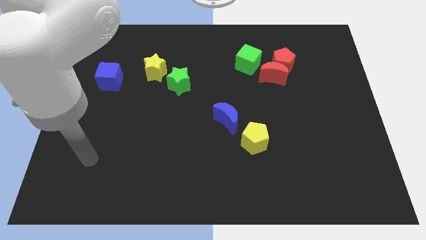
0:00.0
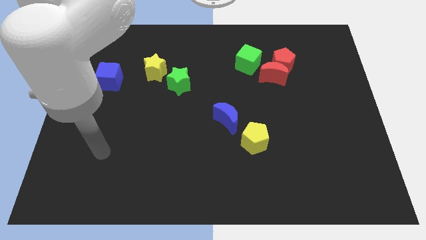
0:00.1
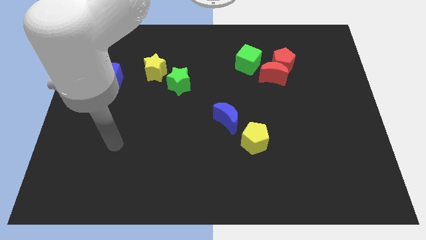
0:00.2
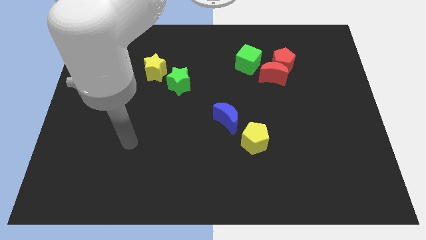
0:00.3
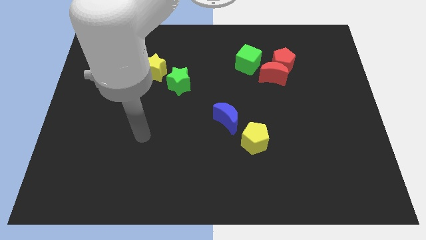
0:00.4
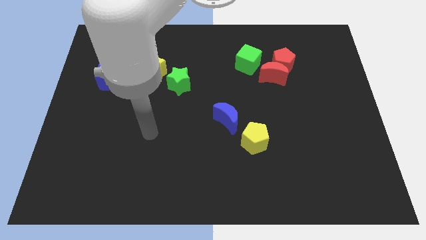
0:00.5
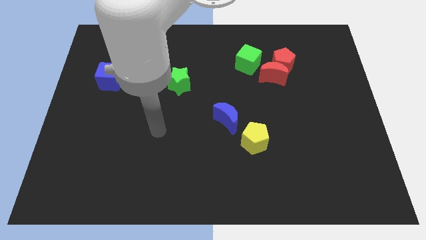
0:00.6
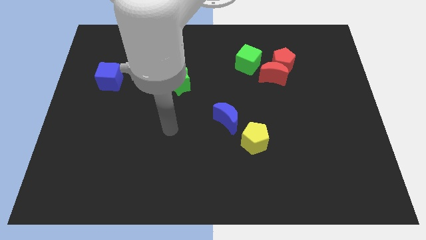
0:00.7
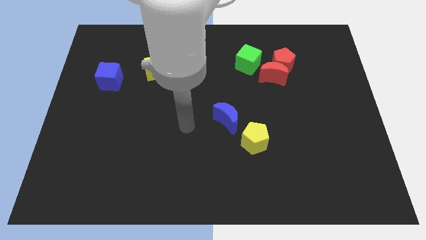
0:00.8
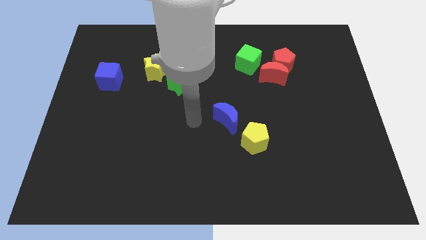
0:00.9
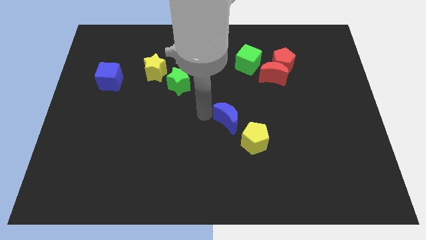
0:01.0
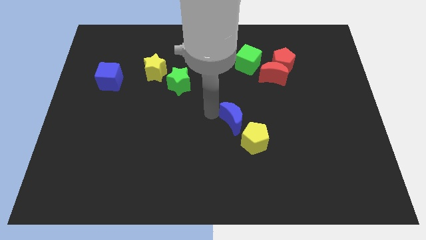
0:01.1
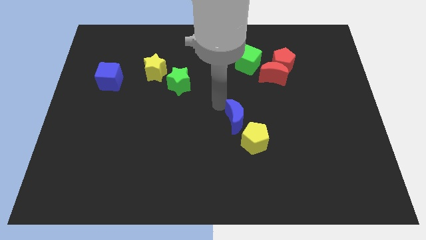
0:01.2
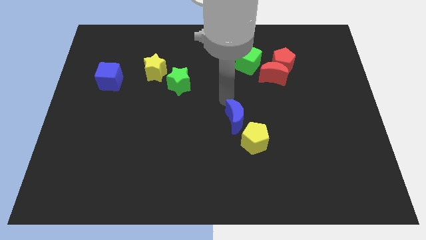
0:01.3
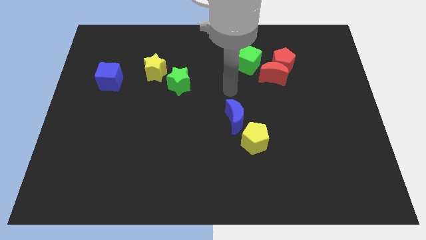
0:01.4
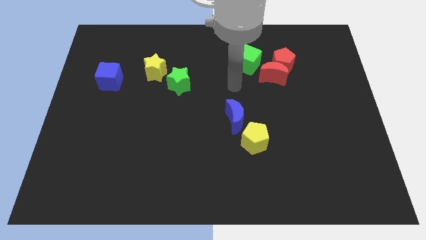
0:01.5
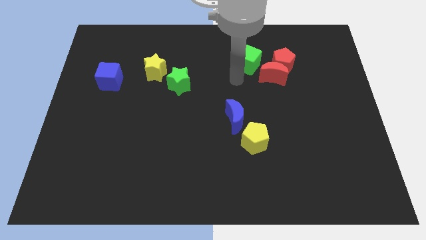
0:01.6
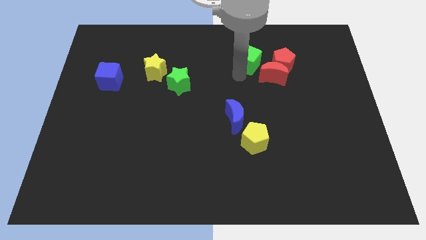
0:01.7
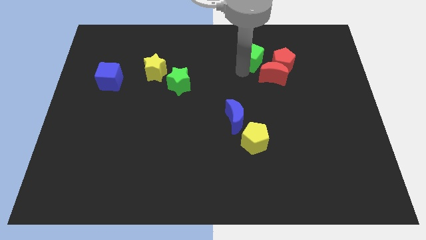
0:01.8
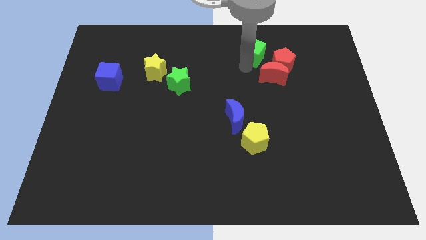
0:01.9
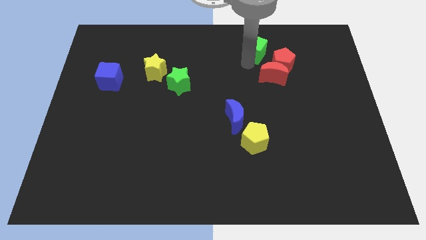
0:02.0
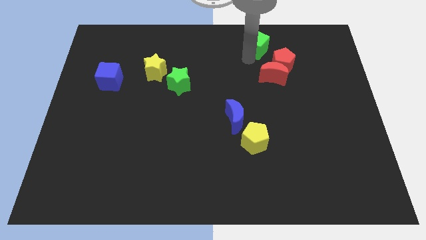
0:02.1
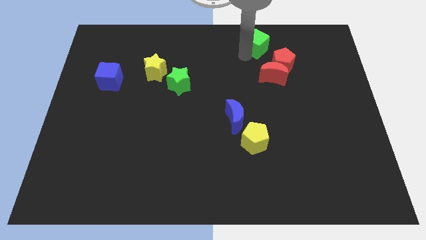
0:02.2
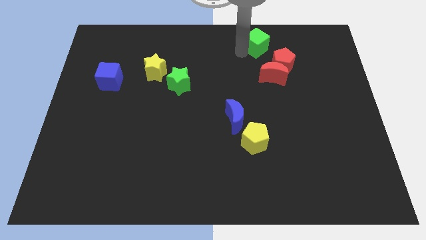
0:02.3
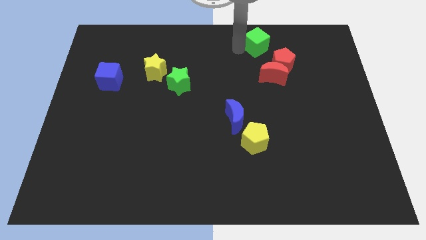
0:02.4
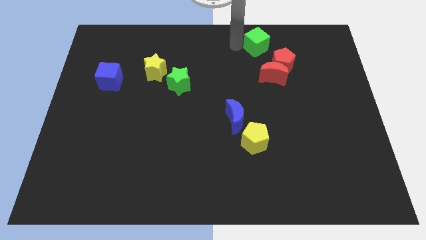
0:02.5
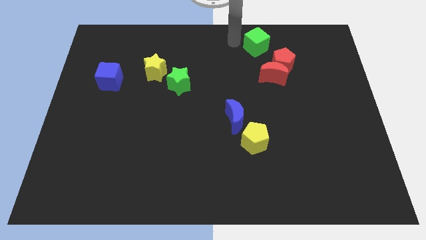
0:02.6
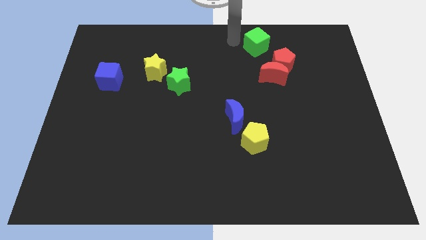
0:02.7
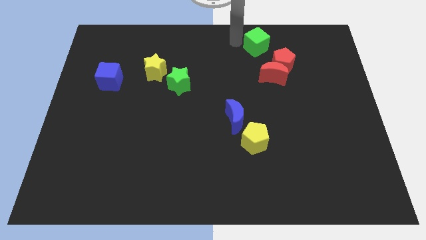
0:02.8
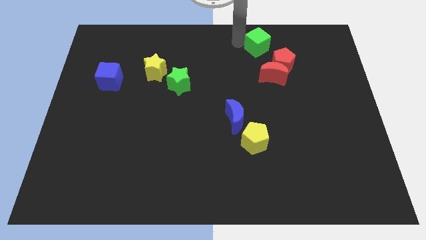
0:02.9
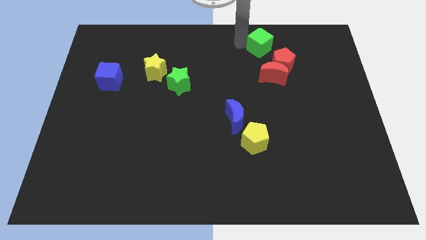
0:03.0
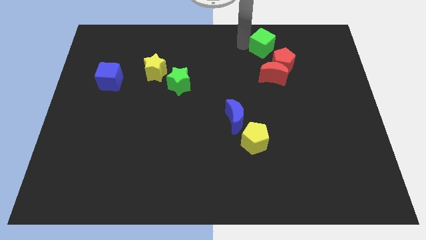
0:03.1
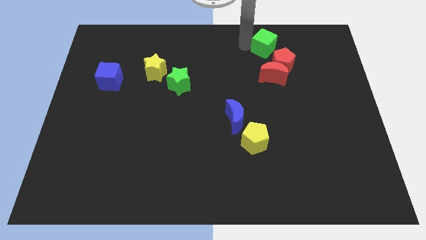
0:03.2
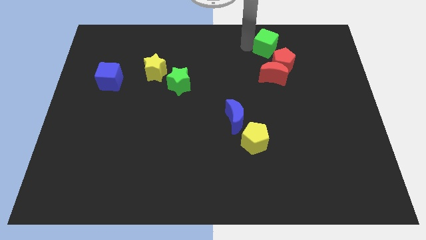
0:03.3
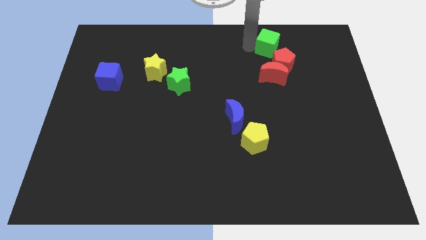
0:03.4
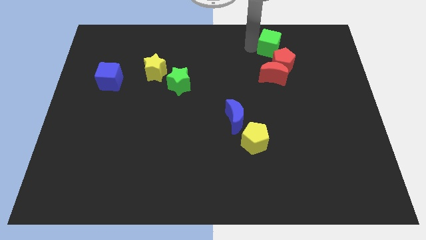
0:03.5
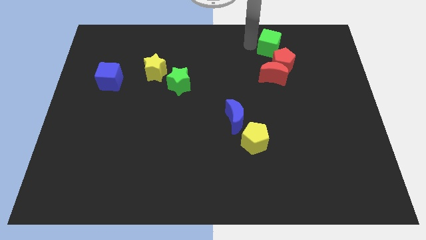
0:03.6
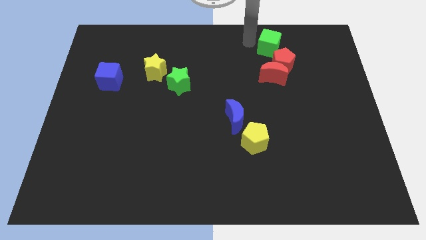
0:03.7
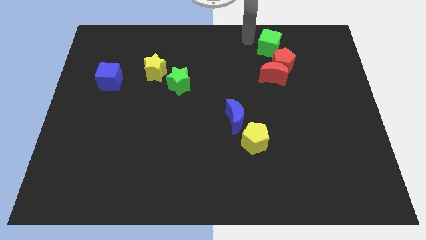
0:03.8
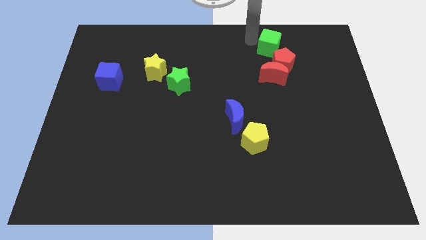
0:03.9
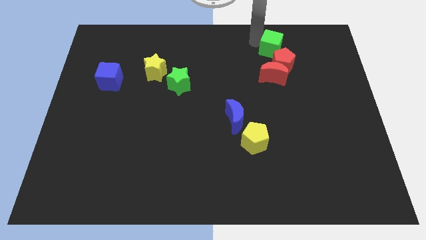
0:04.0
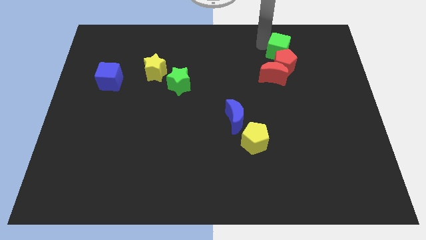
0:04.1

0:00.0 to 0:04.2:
push the green cube a little bit right

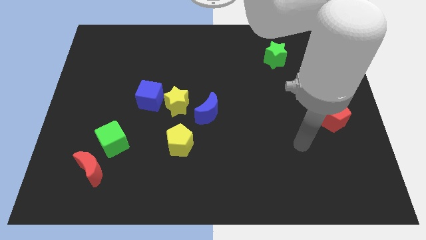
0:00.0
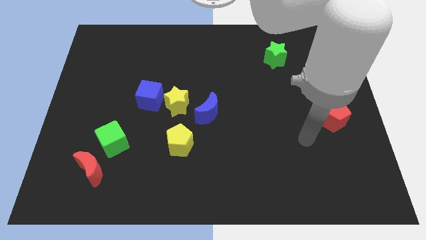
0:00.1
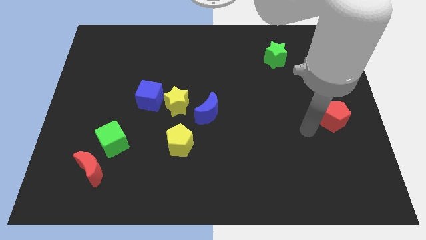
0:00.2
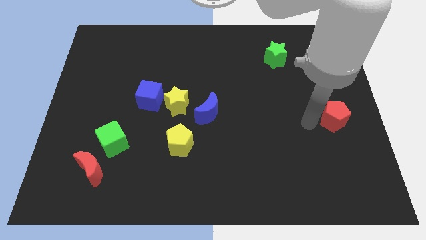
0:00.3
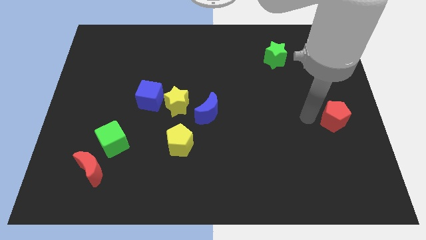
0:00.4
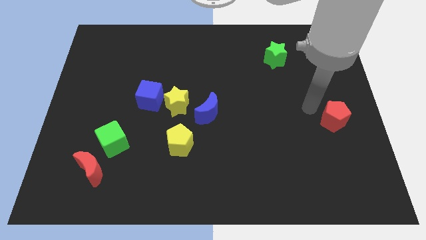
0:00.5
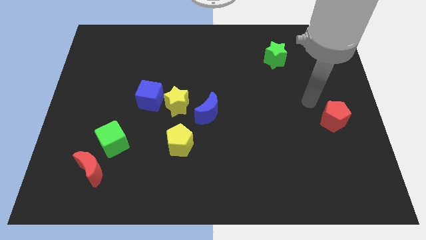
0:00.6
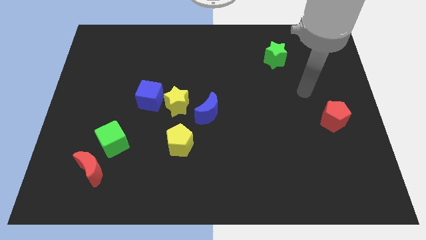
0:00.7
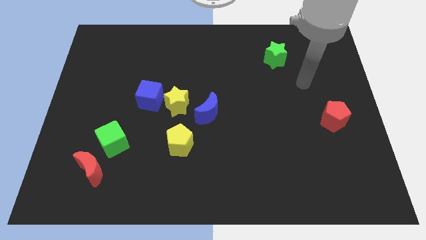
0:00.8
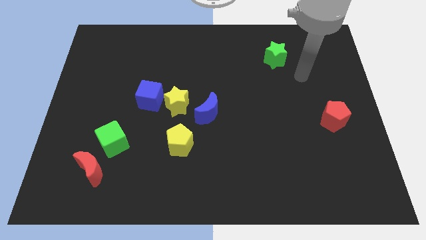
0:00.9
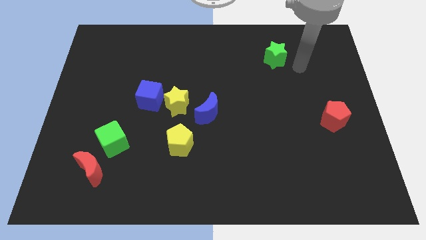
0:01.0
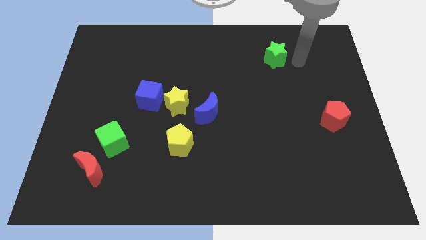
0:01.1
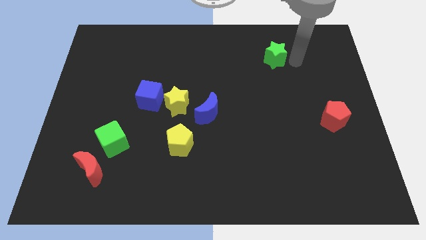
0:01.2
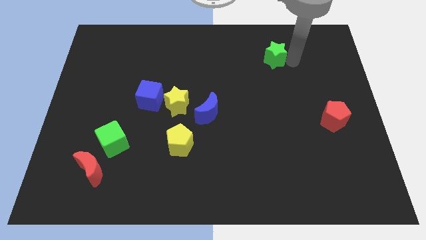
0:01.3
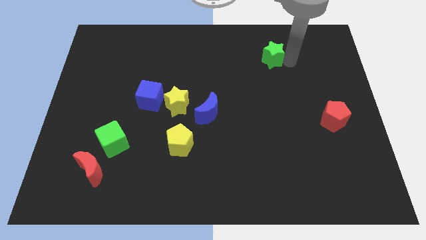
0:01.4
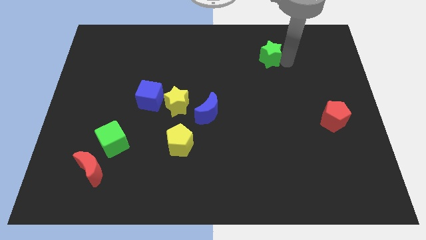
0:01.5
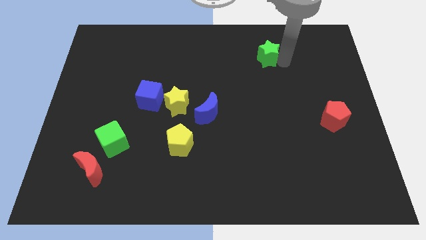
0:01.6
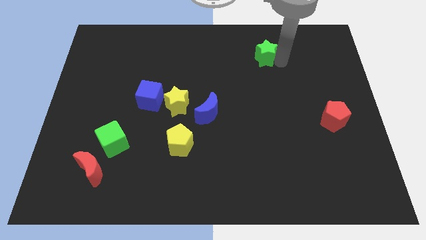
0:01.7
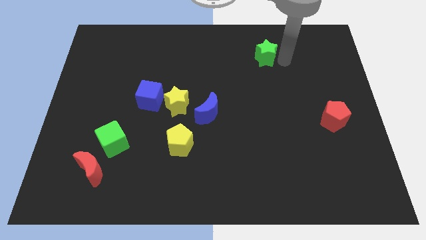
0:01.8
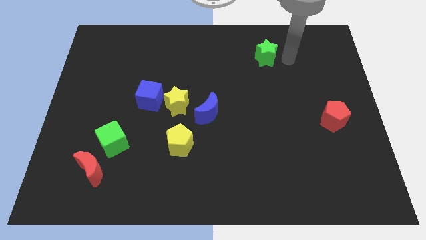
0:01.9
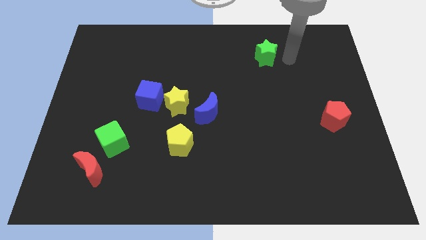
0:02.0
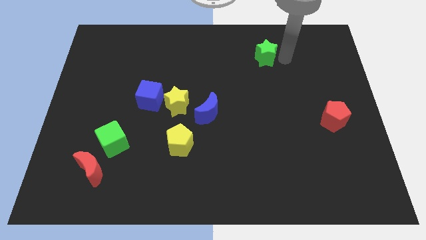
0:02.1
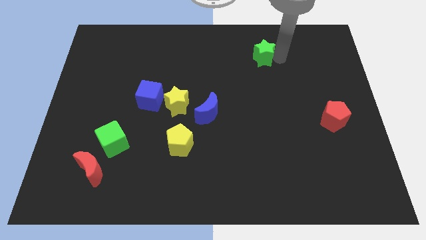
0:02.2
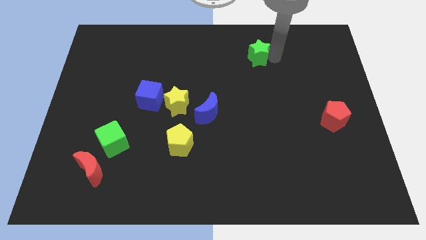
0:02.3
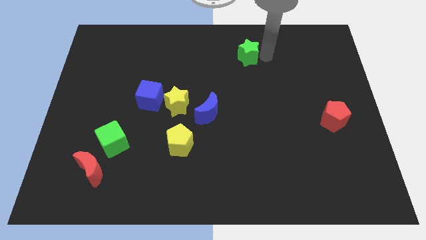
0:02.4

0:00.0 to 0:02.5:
slightly push the green star left

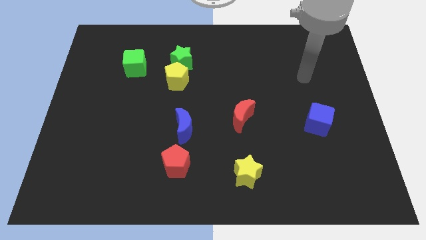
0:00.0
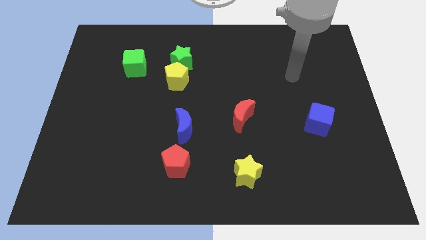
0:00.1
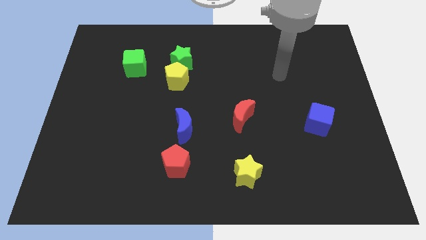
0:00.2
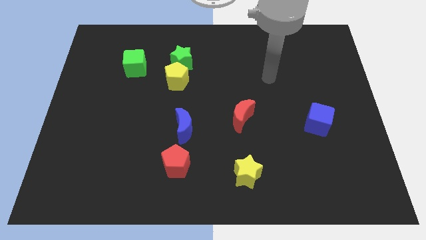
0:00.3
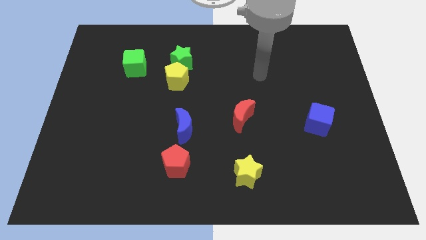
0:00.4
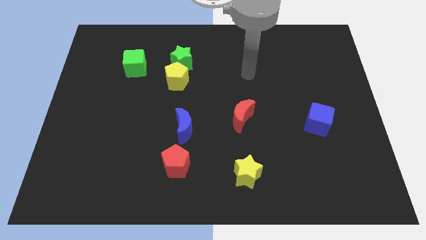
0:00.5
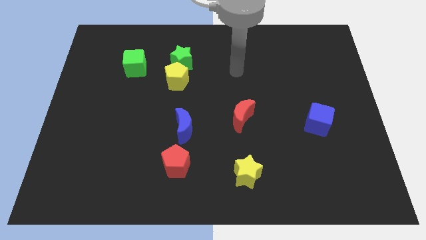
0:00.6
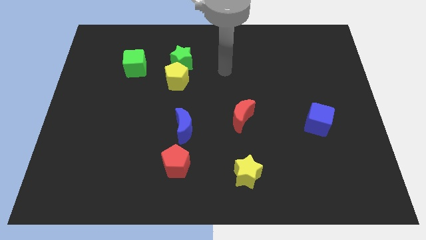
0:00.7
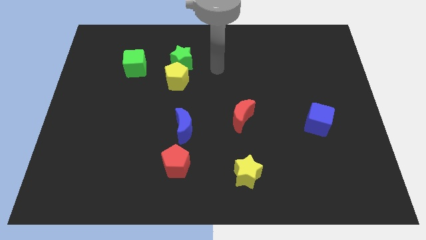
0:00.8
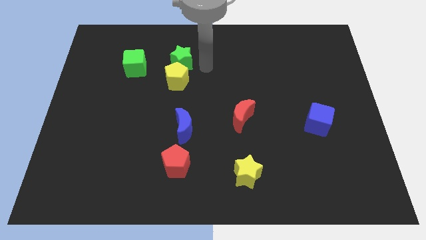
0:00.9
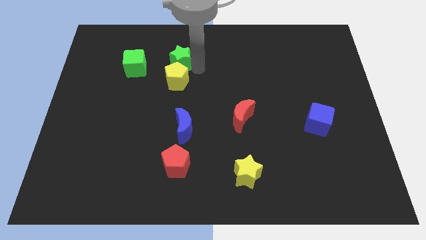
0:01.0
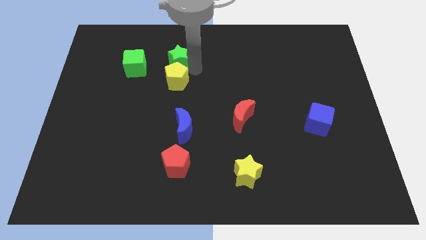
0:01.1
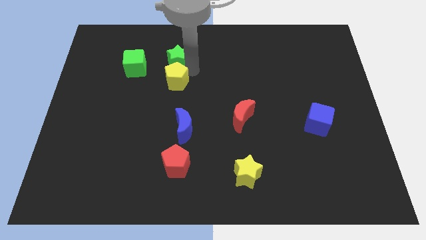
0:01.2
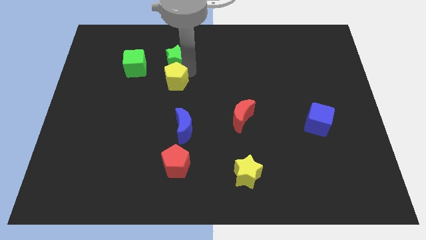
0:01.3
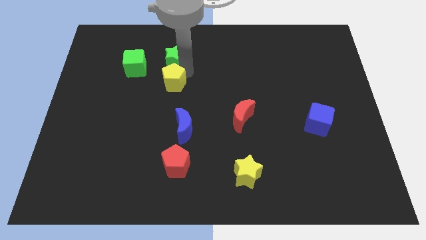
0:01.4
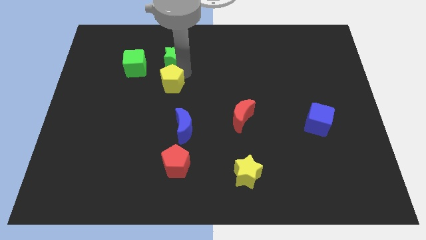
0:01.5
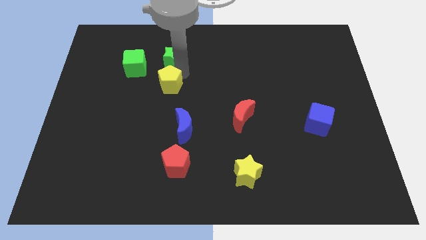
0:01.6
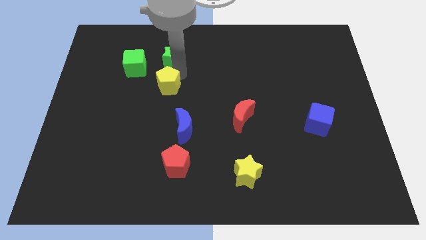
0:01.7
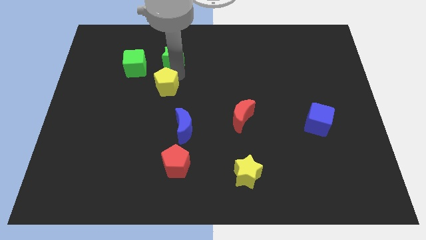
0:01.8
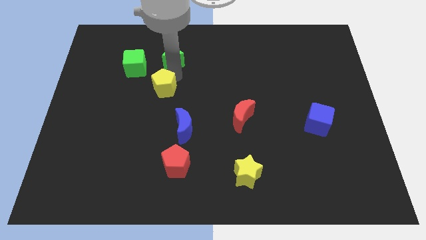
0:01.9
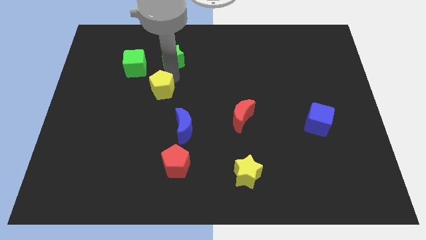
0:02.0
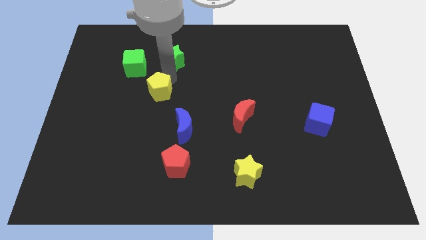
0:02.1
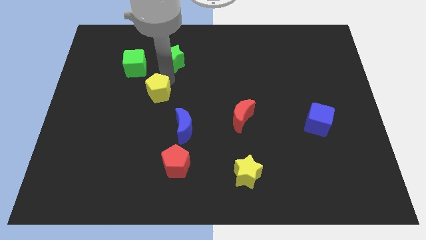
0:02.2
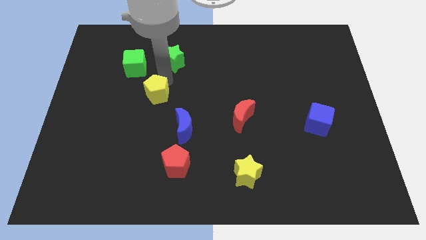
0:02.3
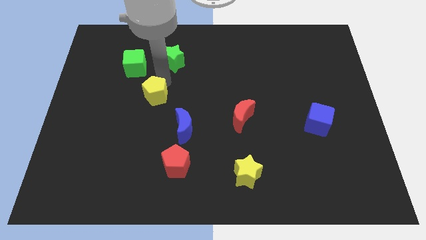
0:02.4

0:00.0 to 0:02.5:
slide the yellow pentagon down and to the left somewhat
